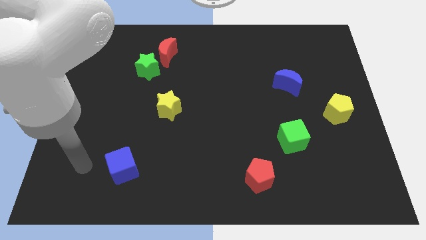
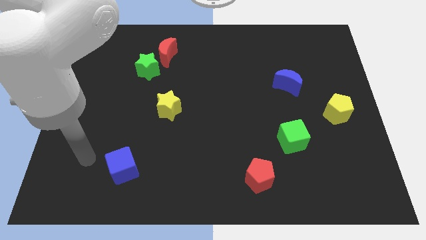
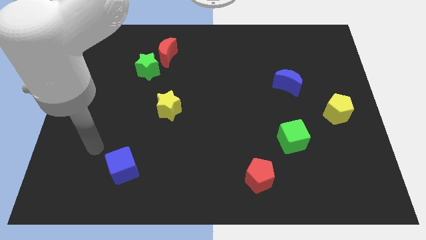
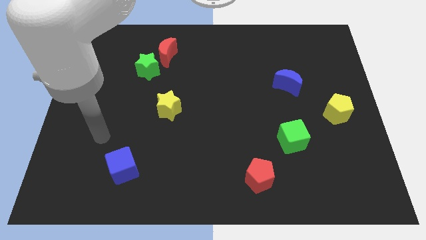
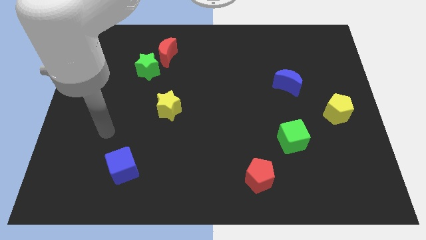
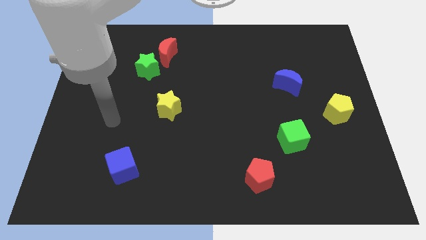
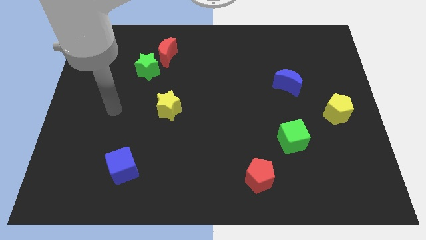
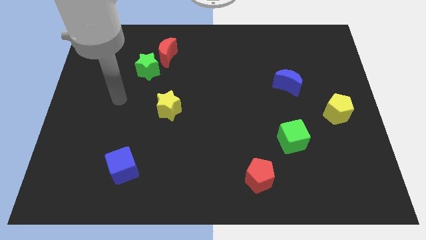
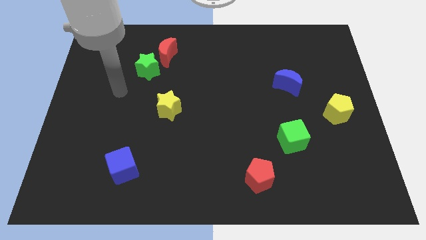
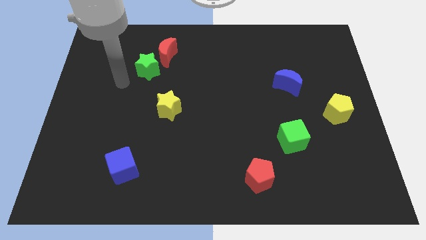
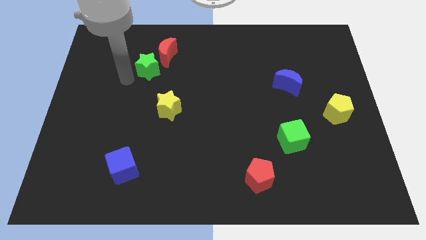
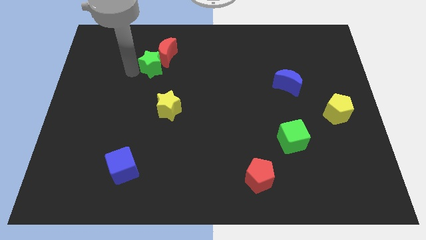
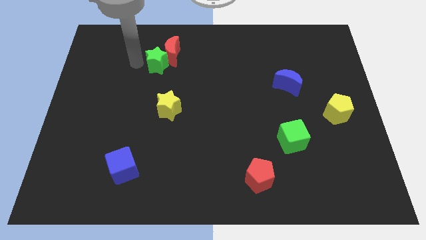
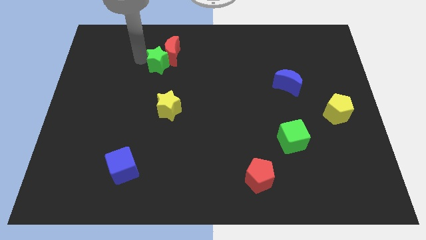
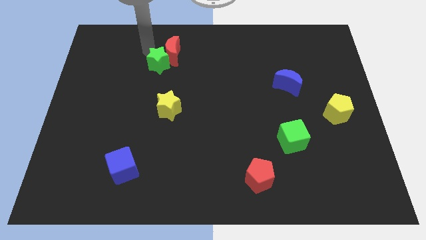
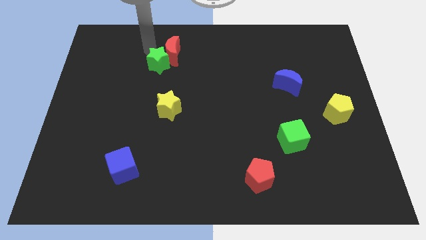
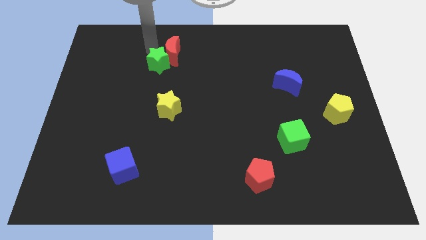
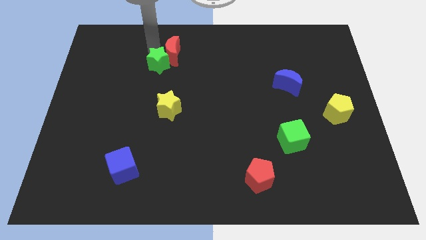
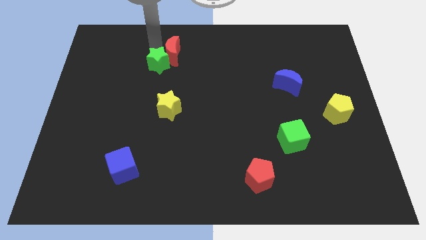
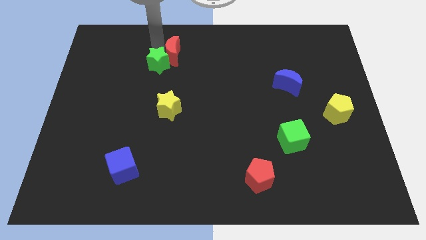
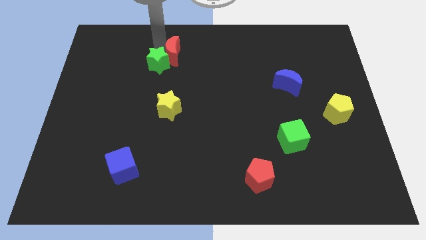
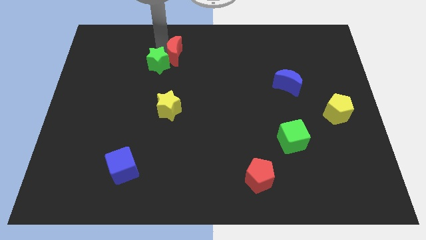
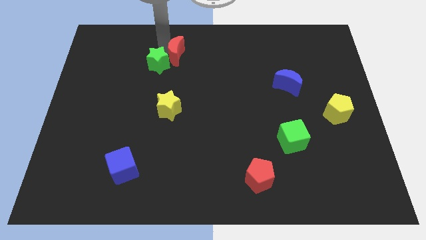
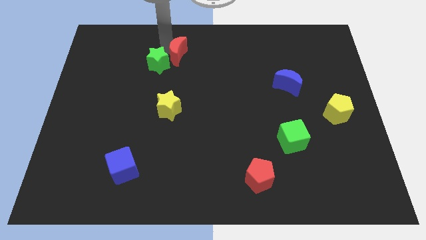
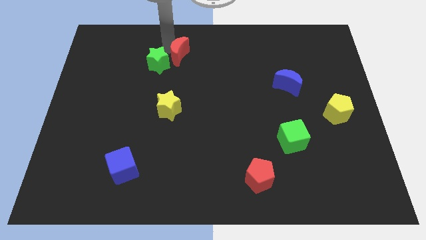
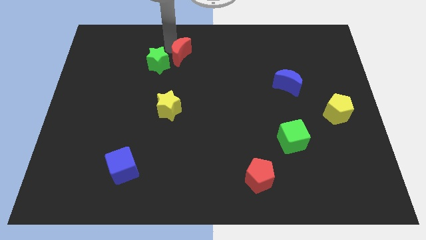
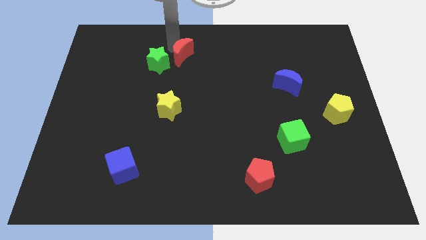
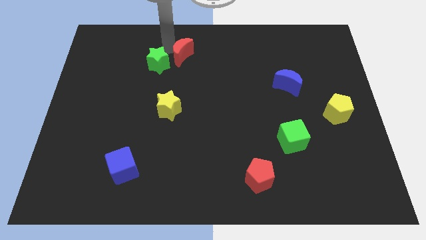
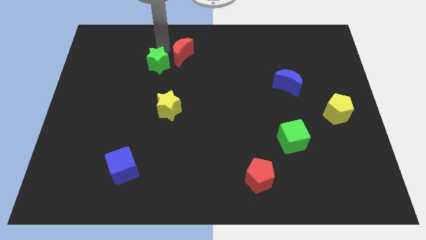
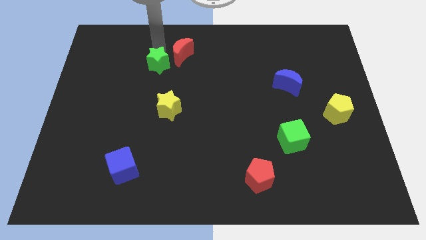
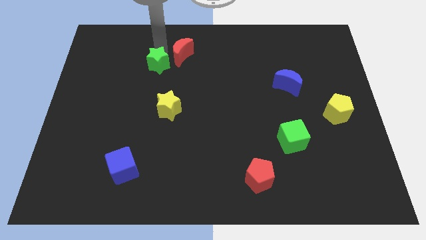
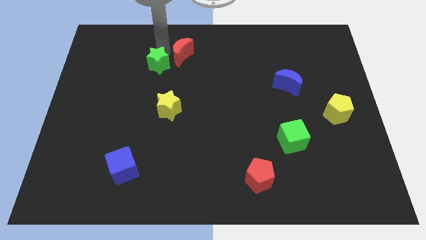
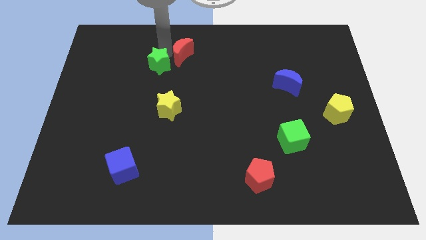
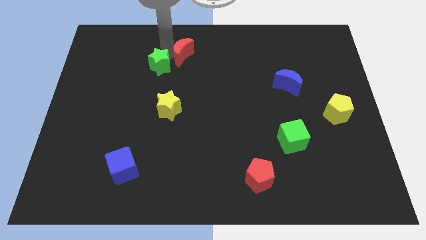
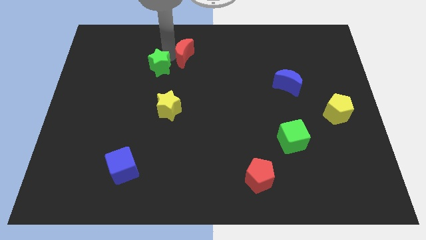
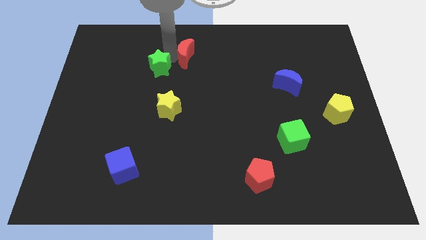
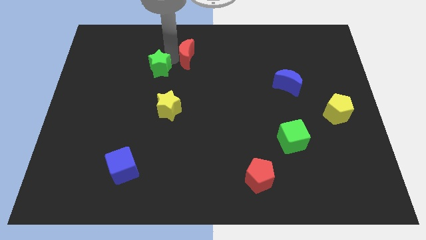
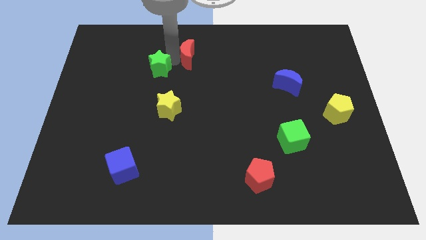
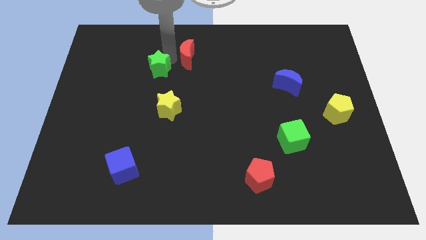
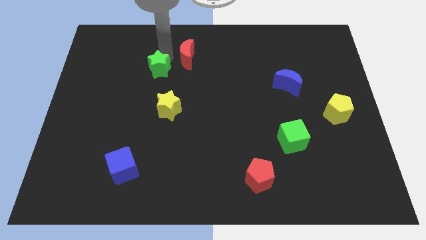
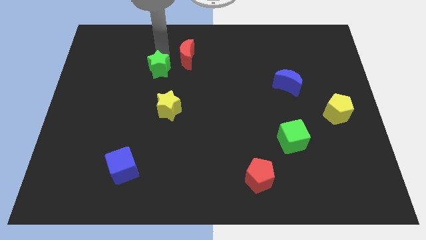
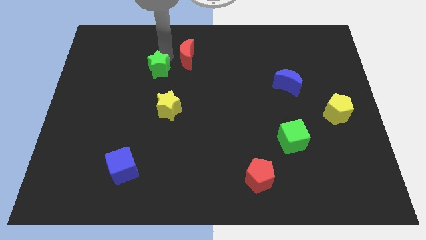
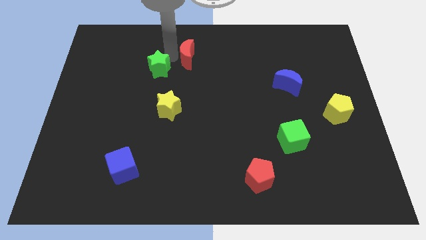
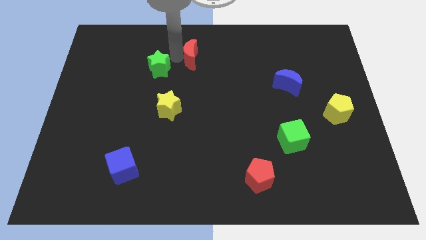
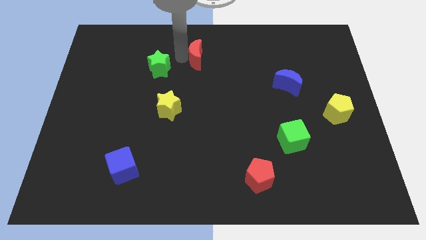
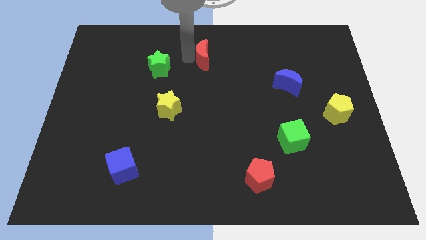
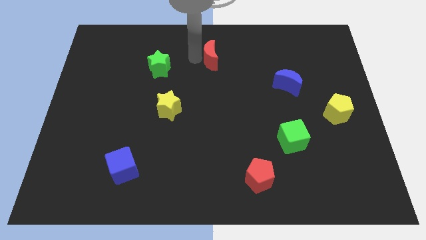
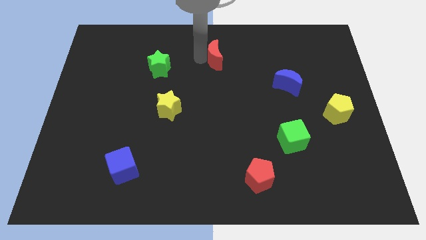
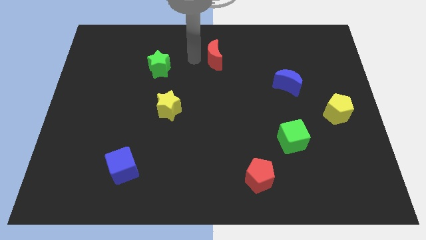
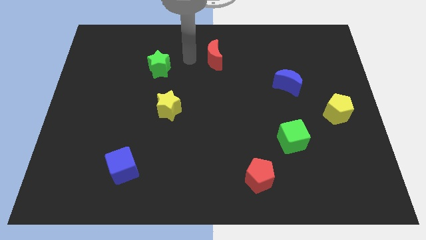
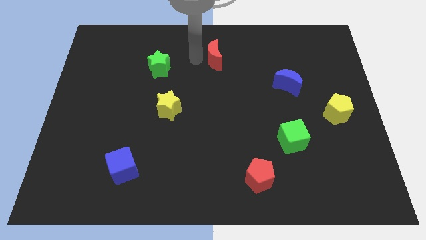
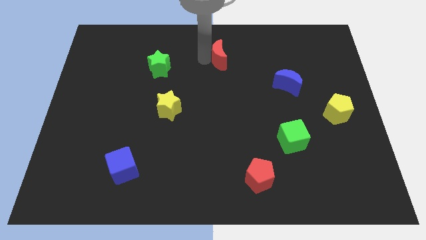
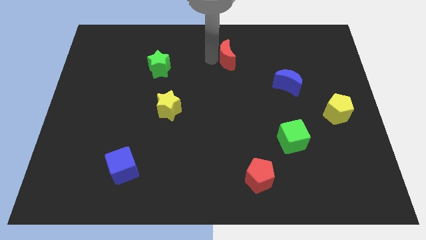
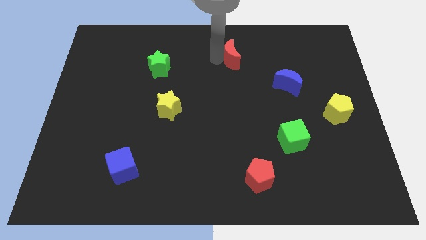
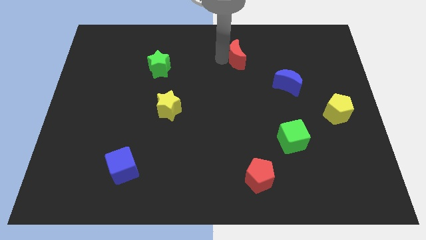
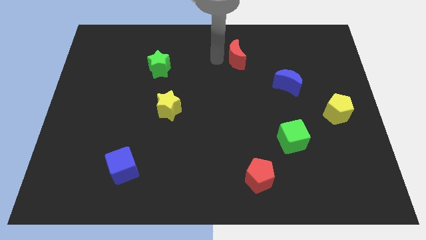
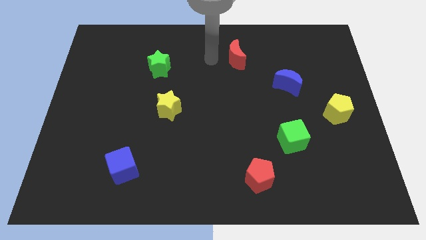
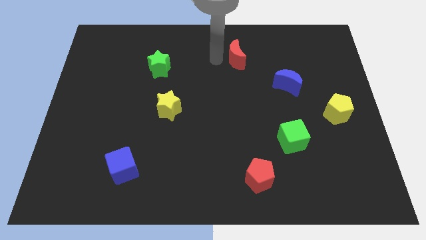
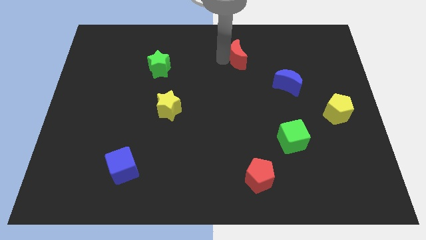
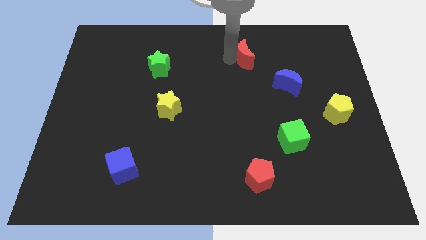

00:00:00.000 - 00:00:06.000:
slide the red moon right

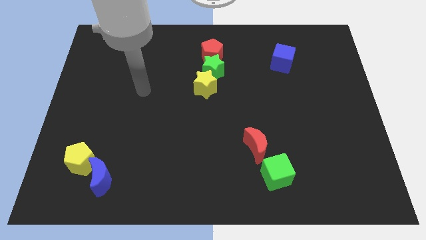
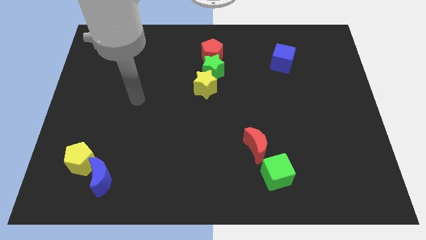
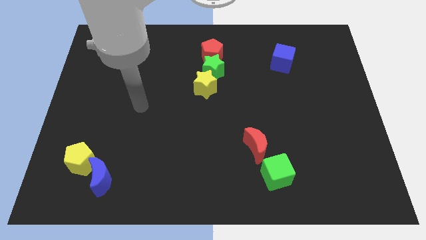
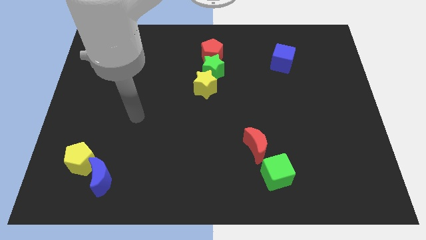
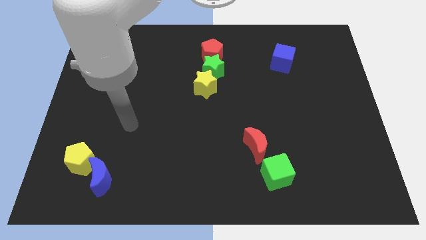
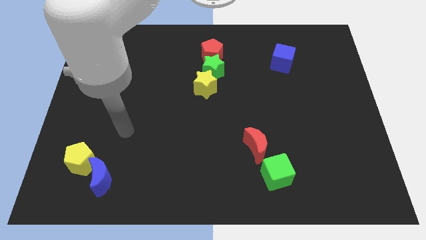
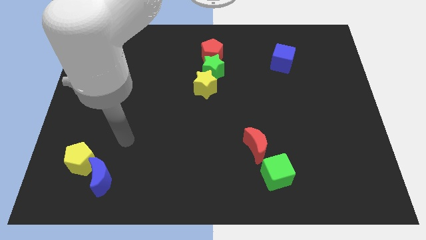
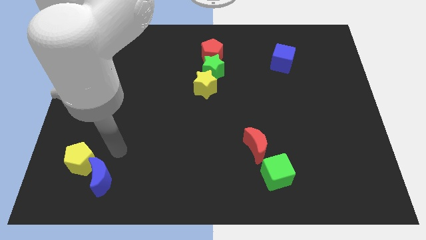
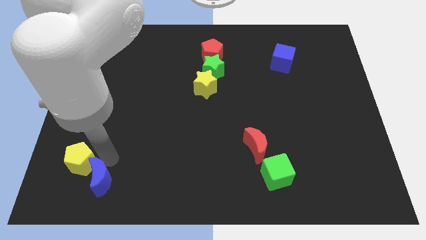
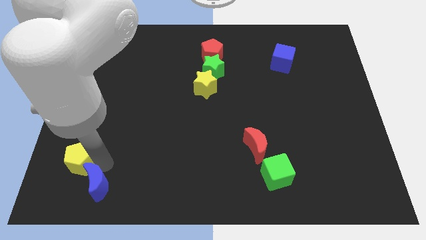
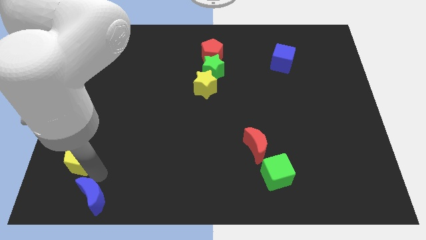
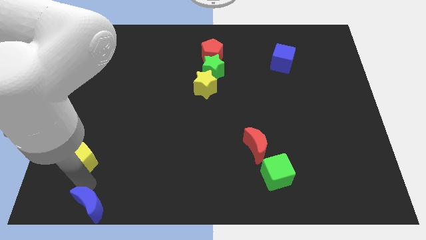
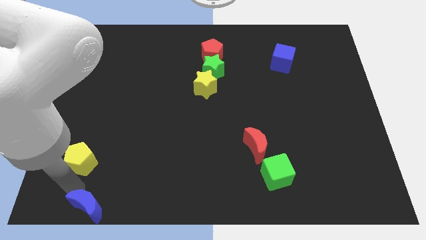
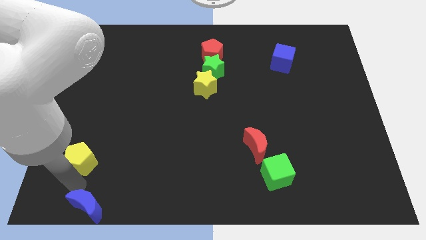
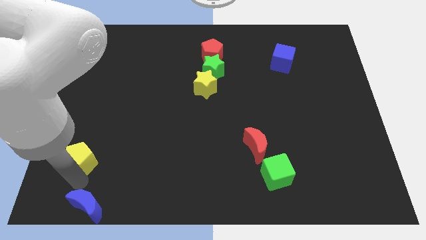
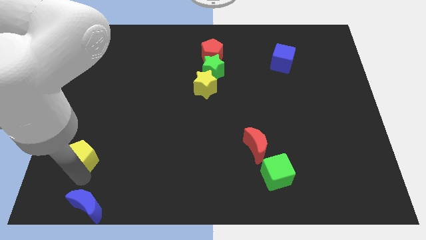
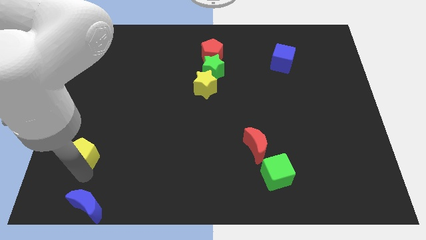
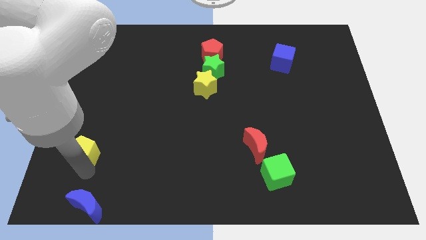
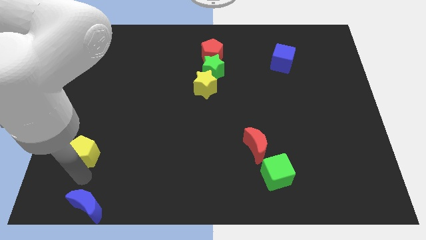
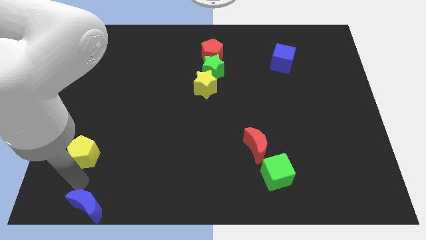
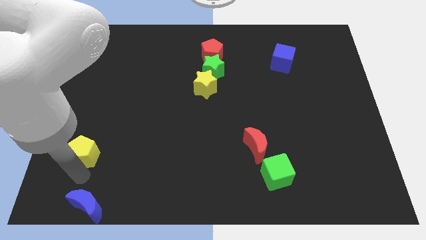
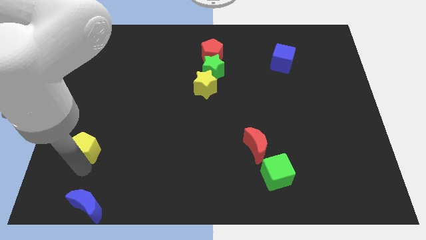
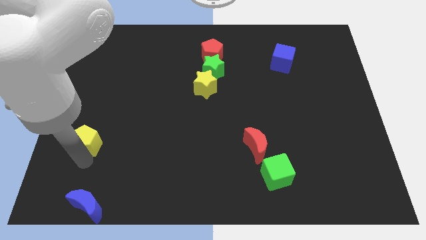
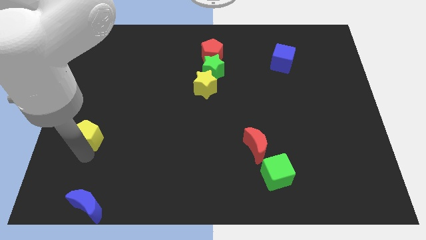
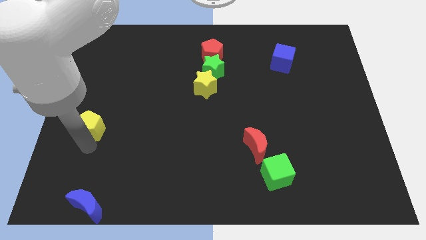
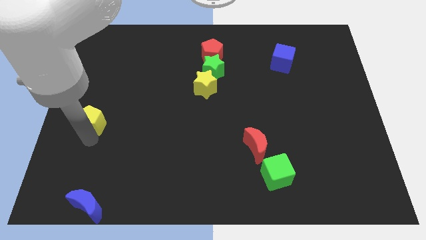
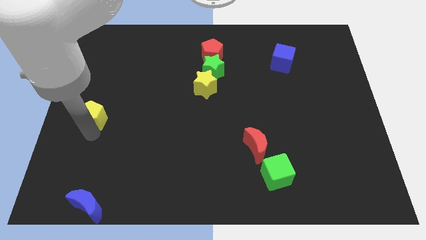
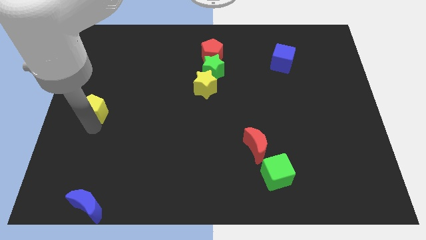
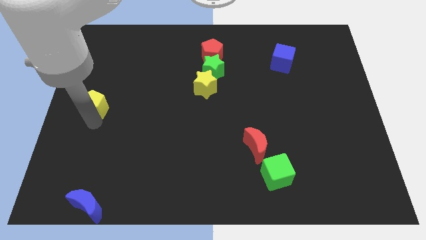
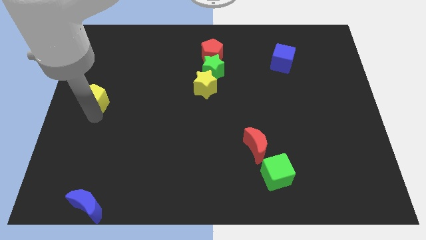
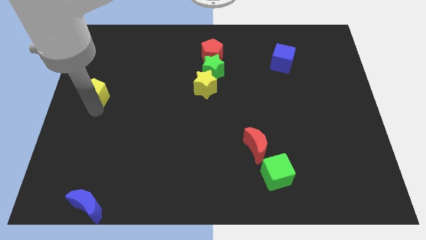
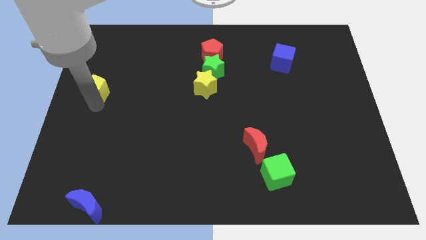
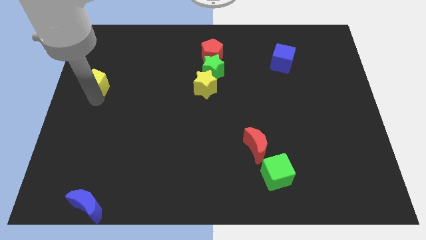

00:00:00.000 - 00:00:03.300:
push the yellow pentagon up
